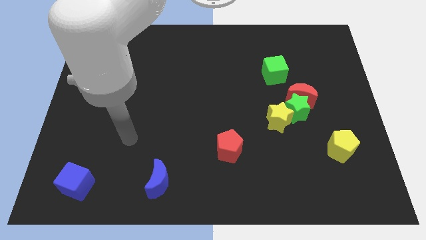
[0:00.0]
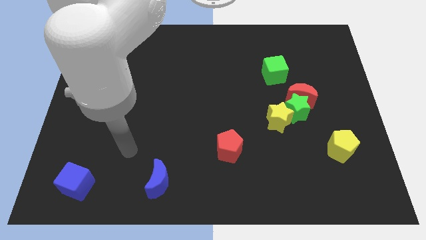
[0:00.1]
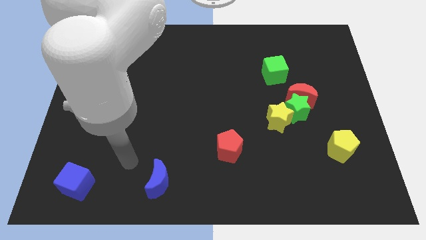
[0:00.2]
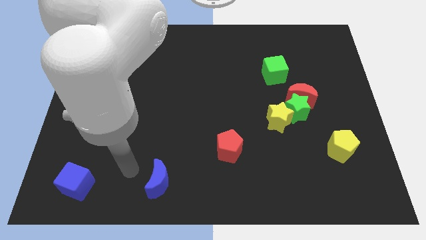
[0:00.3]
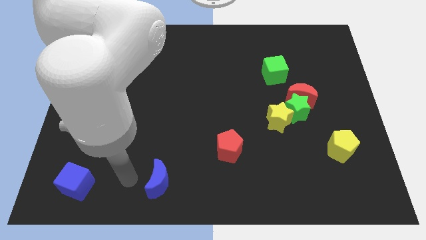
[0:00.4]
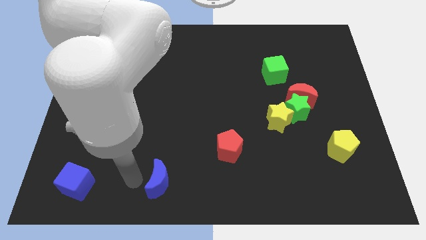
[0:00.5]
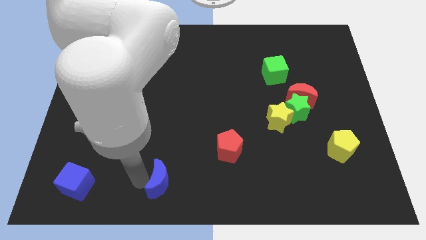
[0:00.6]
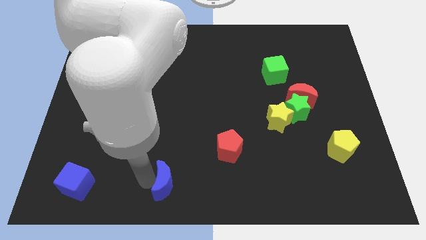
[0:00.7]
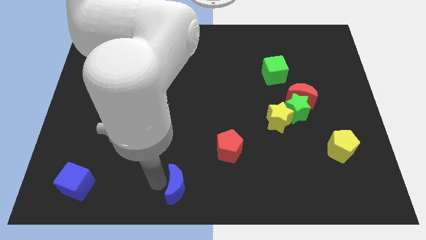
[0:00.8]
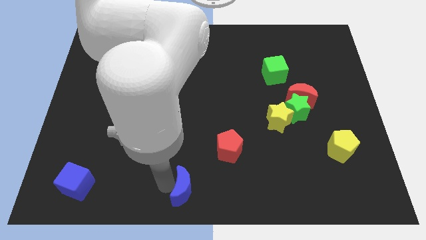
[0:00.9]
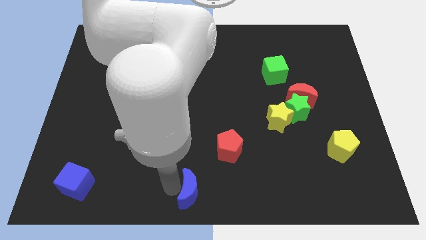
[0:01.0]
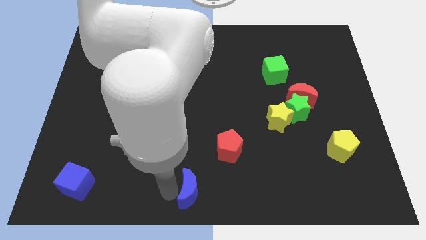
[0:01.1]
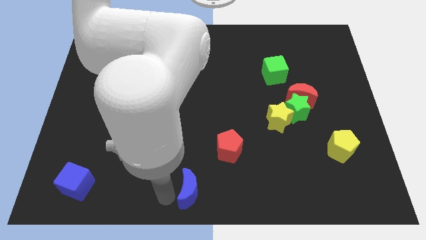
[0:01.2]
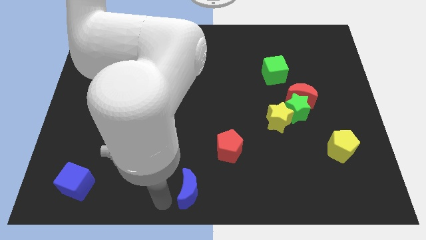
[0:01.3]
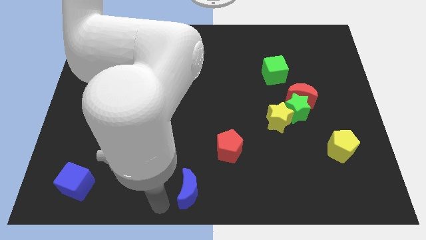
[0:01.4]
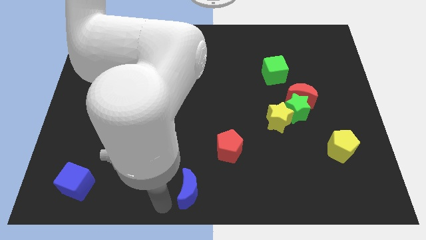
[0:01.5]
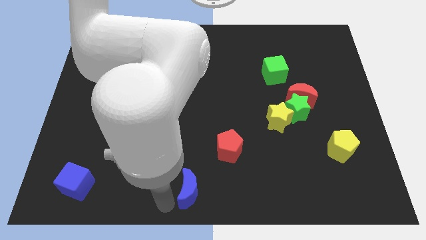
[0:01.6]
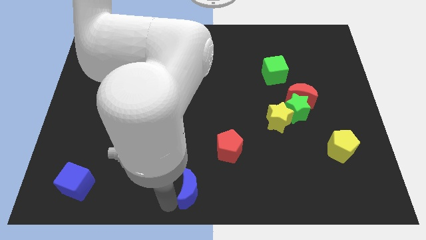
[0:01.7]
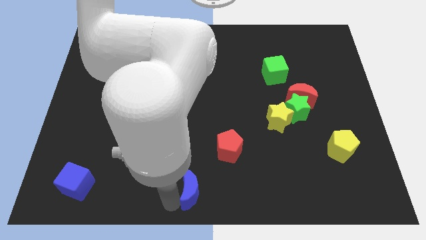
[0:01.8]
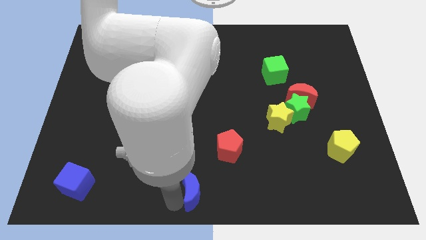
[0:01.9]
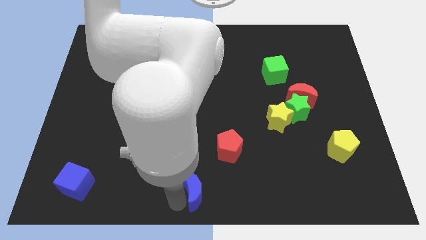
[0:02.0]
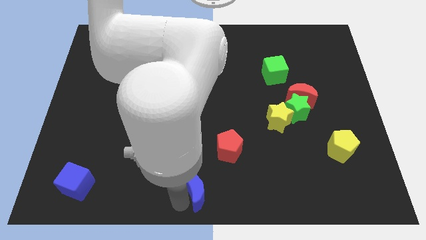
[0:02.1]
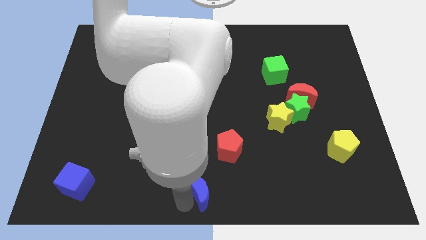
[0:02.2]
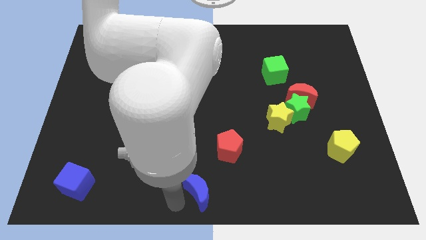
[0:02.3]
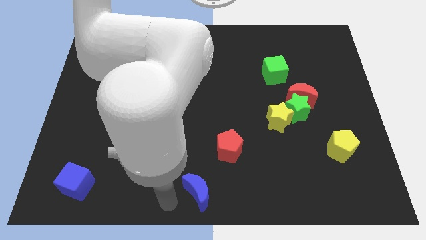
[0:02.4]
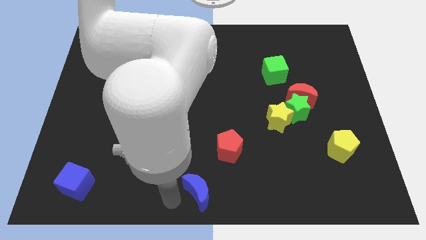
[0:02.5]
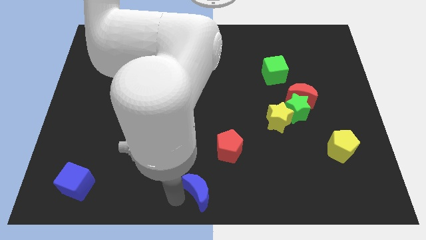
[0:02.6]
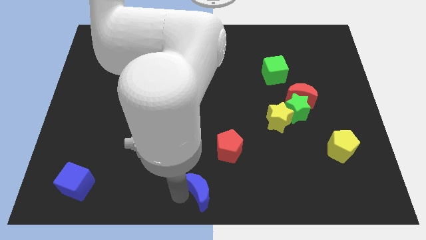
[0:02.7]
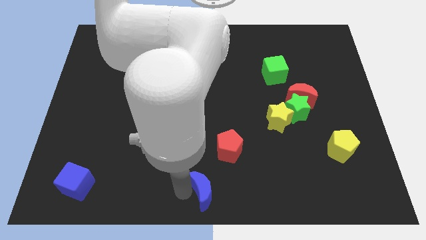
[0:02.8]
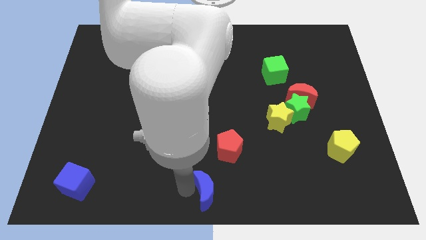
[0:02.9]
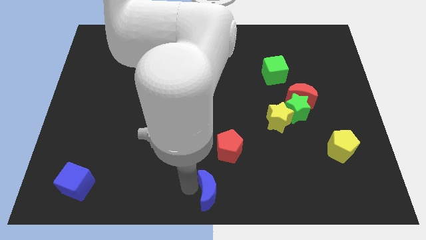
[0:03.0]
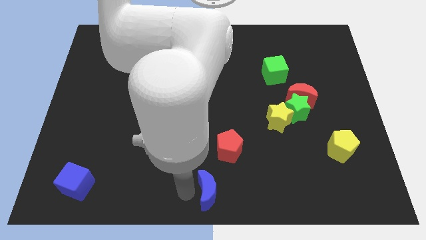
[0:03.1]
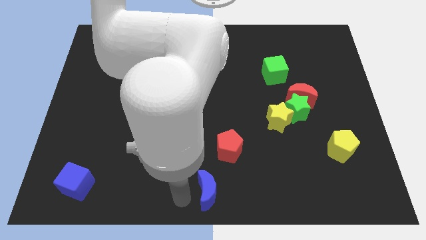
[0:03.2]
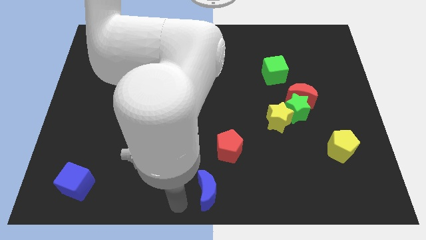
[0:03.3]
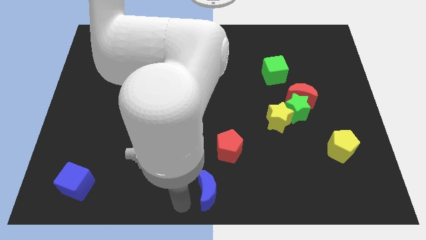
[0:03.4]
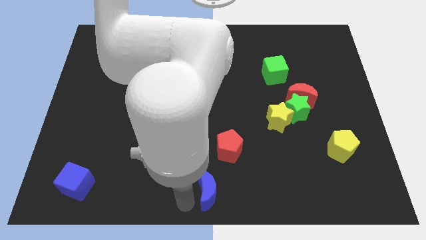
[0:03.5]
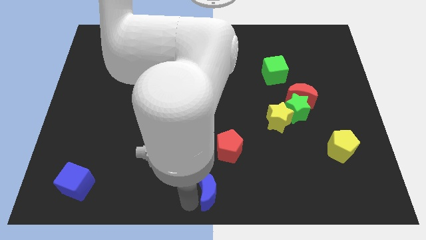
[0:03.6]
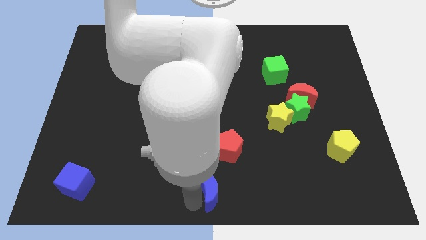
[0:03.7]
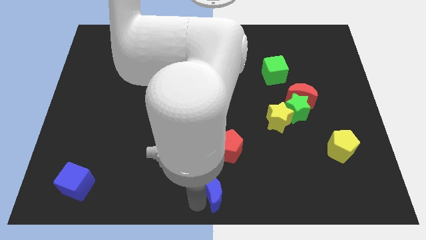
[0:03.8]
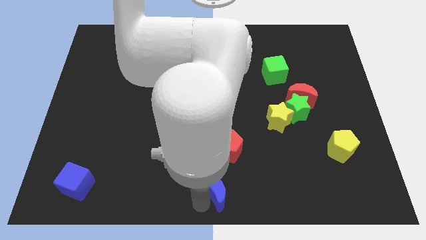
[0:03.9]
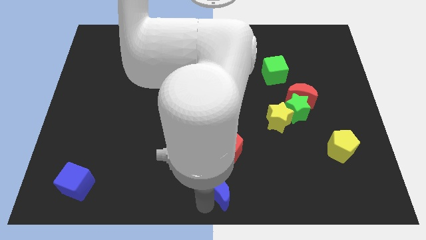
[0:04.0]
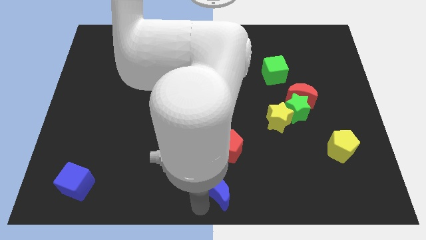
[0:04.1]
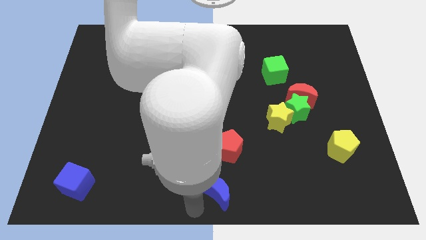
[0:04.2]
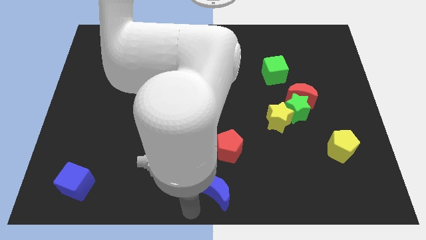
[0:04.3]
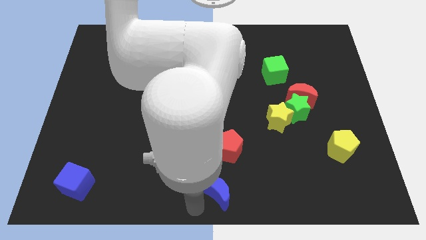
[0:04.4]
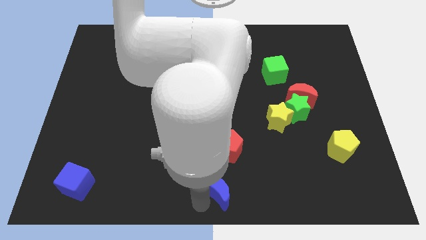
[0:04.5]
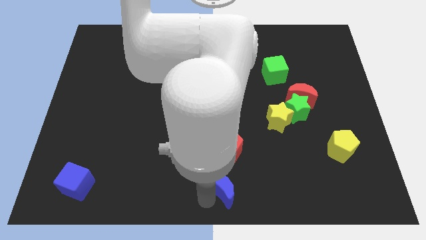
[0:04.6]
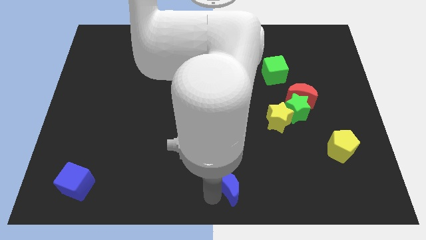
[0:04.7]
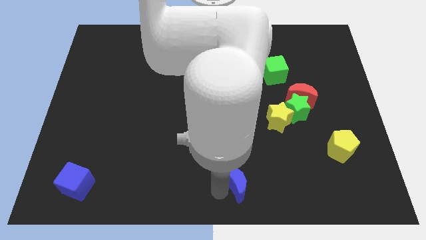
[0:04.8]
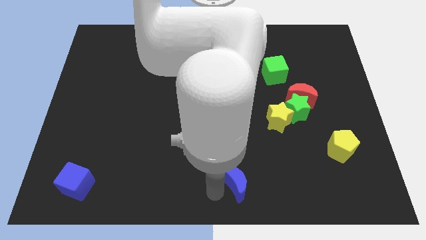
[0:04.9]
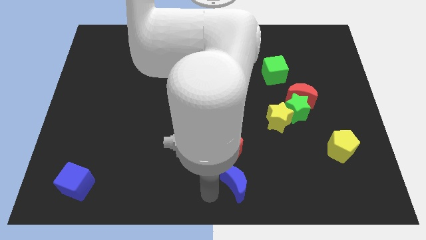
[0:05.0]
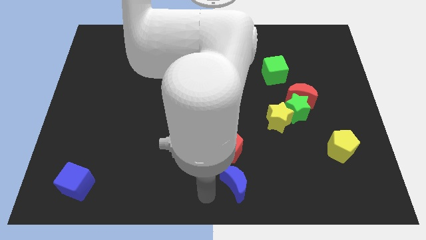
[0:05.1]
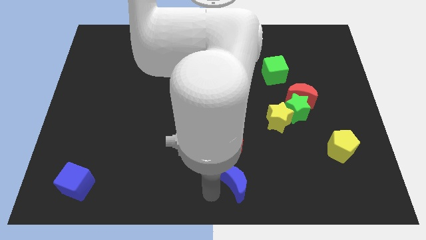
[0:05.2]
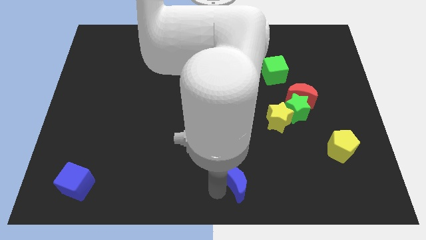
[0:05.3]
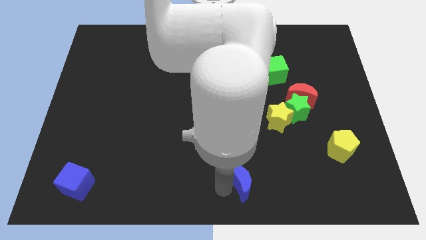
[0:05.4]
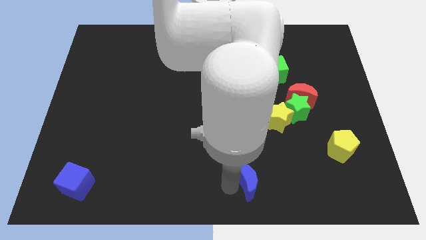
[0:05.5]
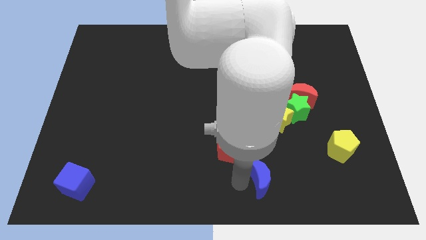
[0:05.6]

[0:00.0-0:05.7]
slide the blue moon right

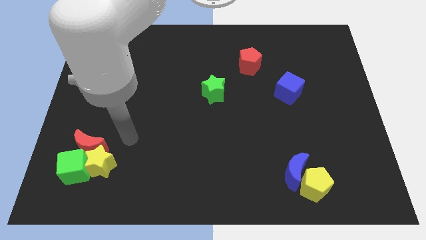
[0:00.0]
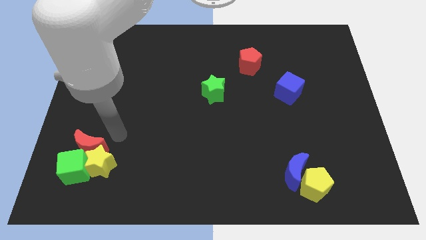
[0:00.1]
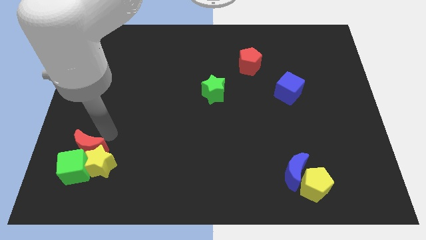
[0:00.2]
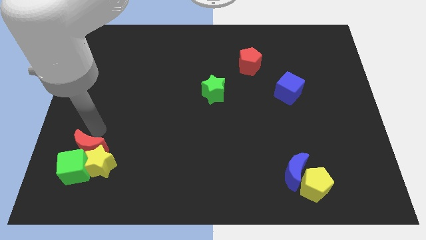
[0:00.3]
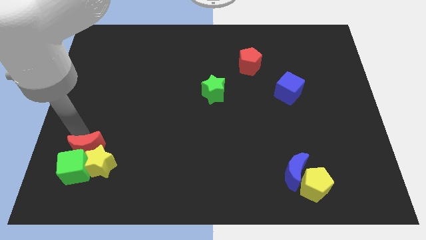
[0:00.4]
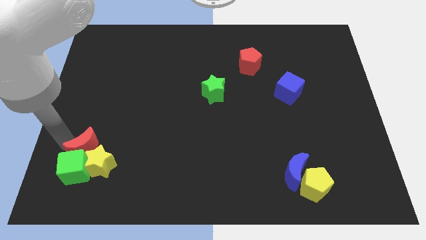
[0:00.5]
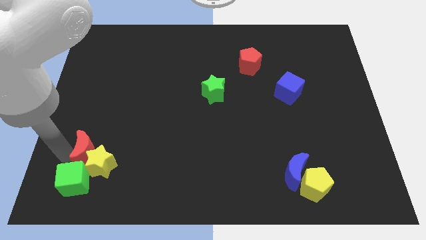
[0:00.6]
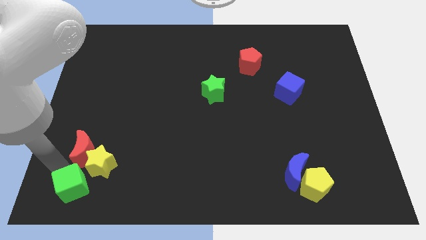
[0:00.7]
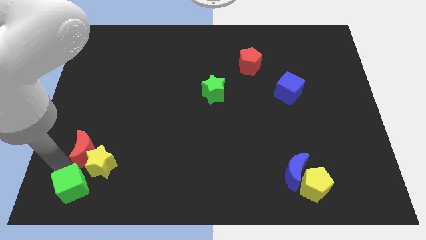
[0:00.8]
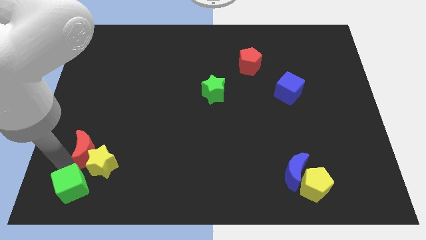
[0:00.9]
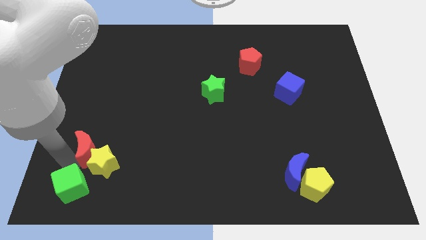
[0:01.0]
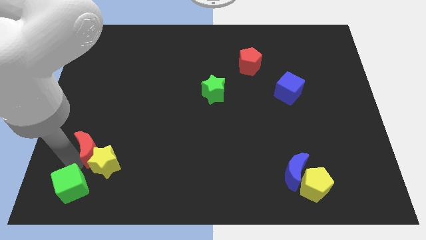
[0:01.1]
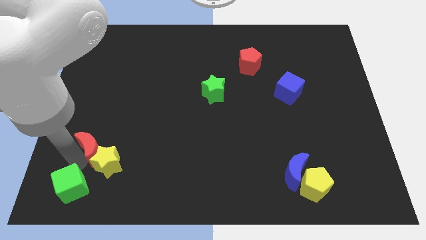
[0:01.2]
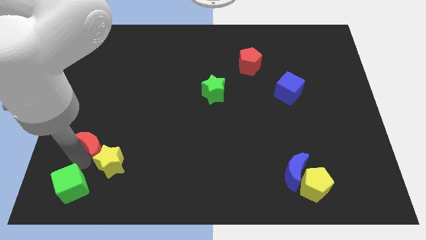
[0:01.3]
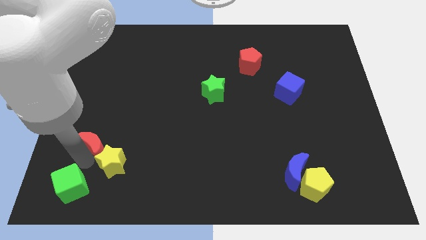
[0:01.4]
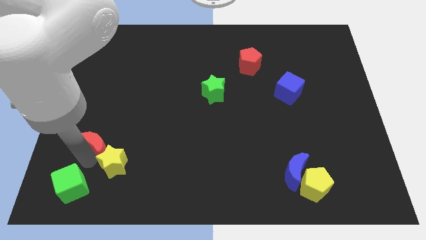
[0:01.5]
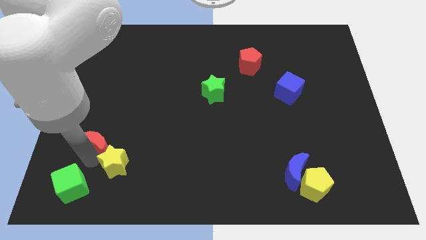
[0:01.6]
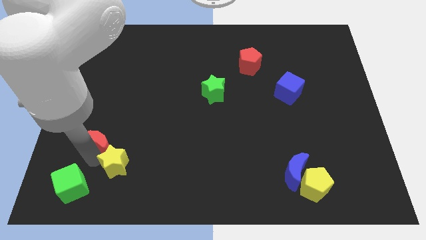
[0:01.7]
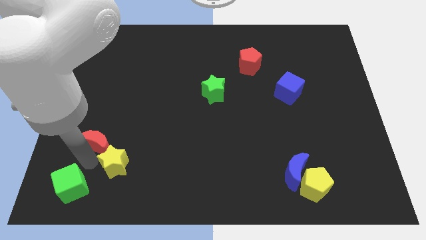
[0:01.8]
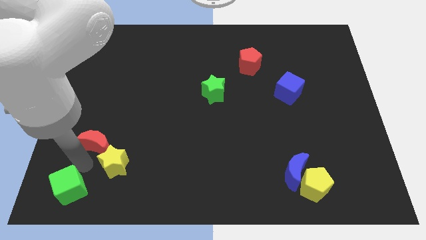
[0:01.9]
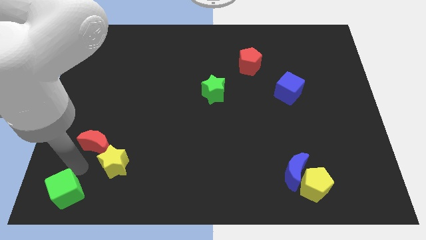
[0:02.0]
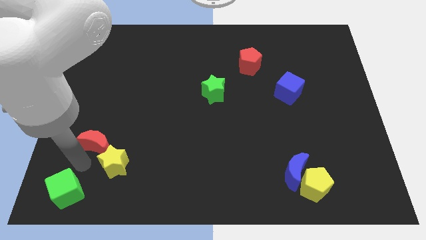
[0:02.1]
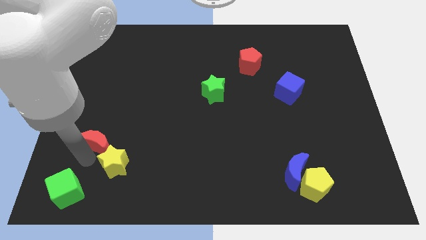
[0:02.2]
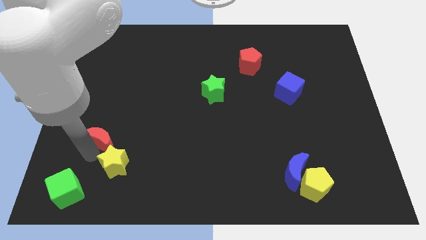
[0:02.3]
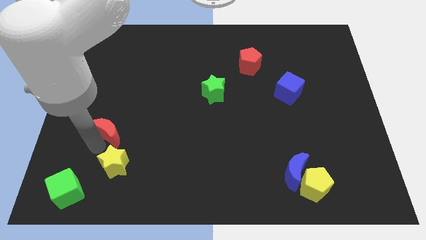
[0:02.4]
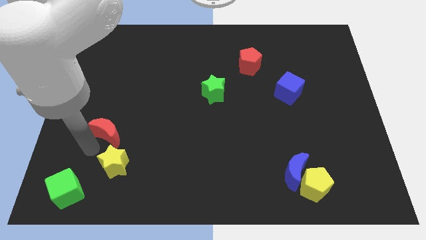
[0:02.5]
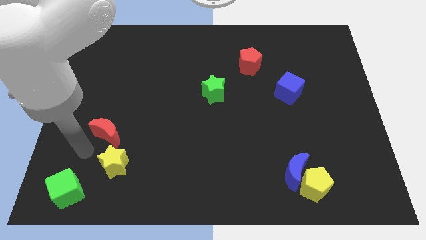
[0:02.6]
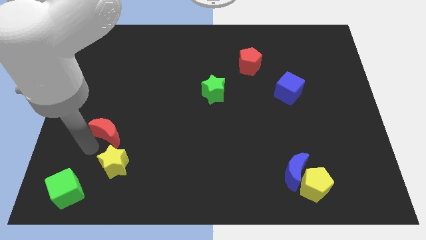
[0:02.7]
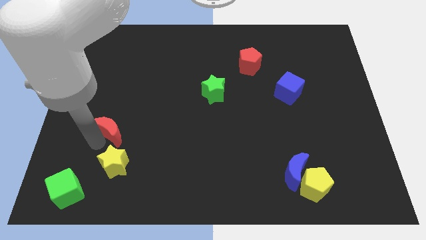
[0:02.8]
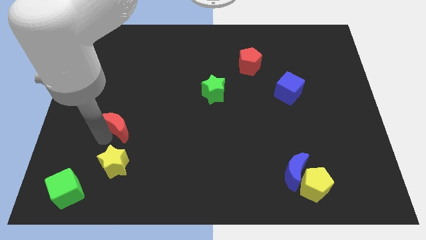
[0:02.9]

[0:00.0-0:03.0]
slide the red moon diagonally upwards and right slightly
